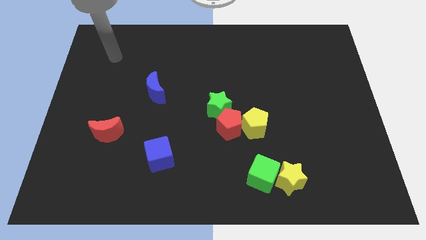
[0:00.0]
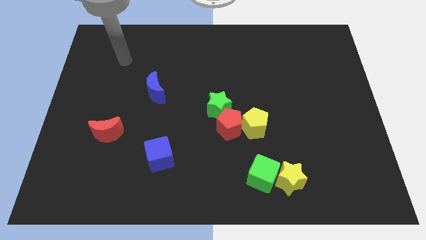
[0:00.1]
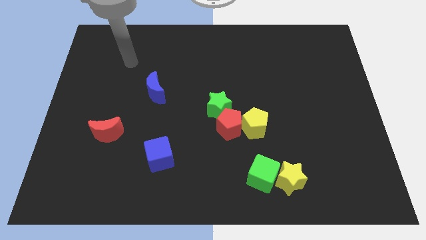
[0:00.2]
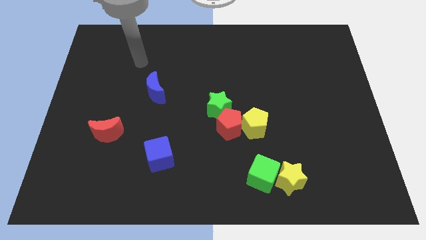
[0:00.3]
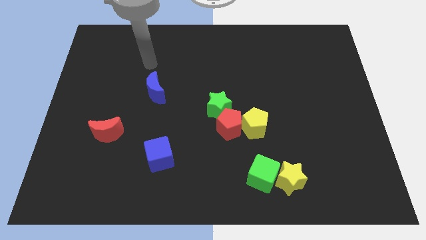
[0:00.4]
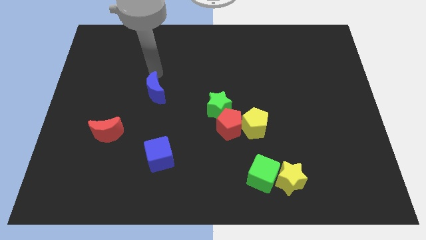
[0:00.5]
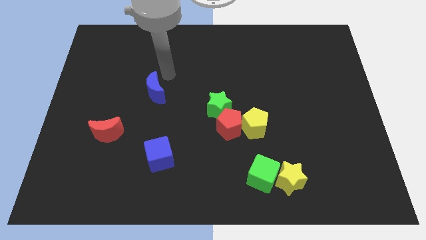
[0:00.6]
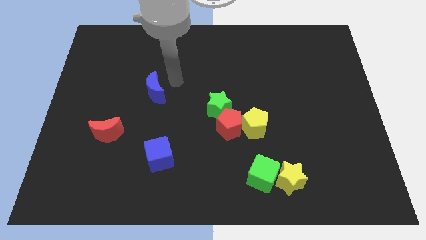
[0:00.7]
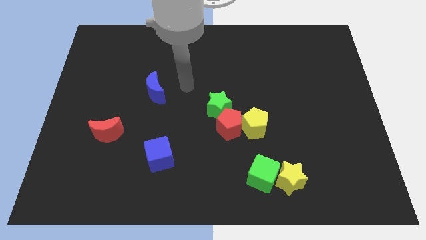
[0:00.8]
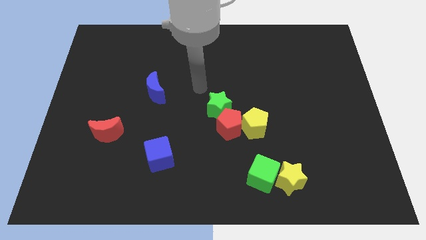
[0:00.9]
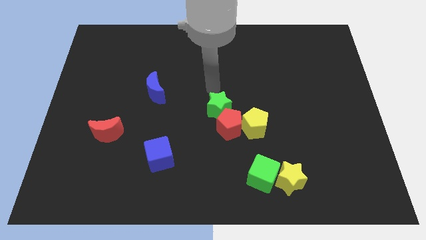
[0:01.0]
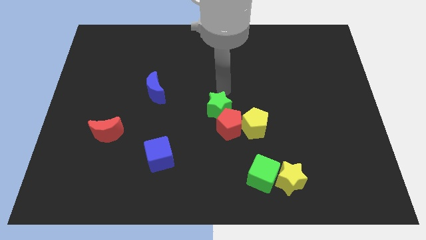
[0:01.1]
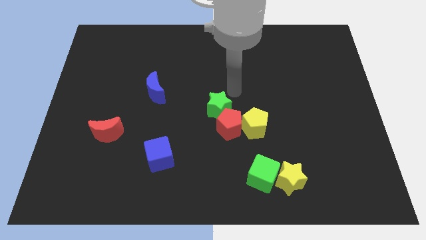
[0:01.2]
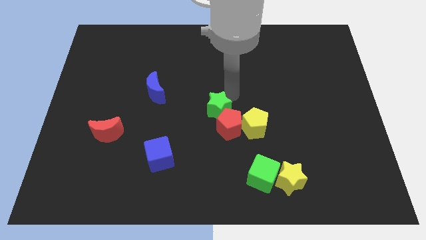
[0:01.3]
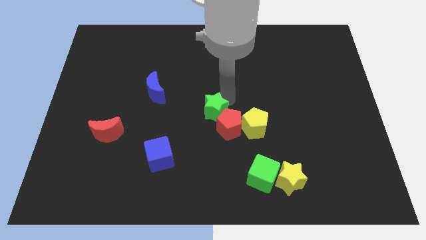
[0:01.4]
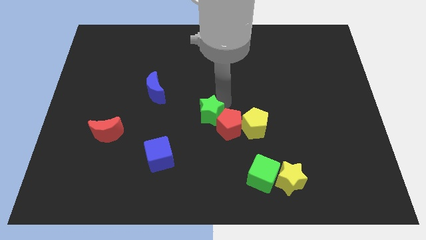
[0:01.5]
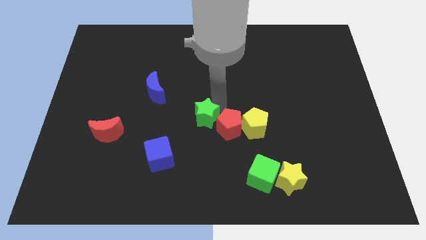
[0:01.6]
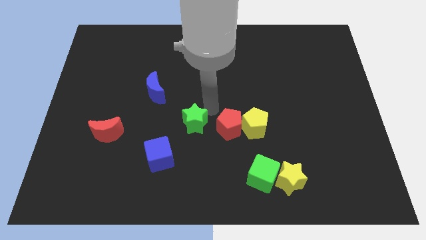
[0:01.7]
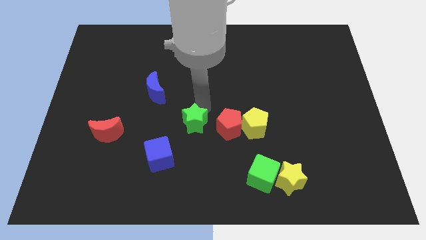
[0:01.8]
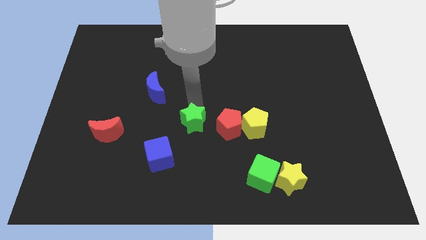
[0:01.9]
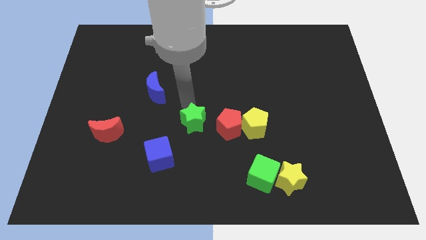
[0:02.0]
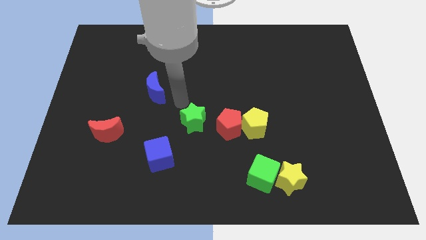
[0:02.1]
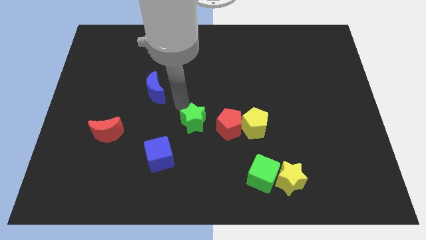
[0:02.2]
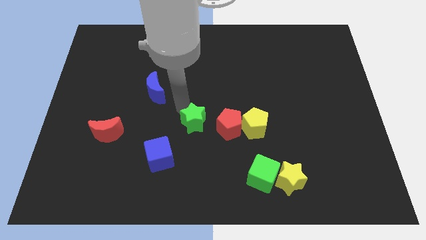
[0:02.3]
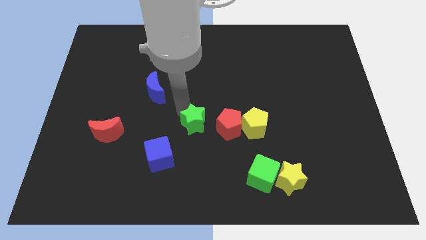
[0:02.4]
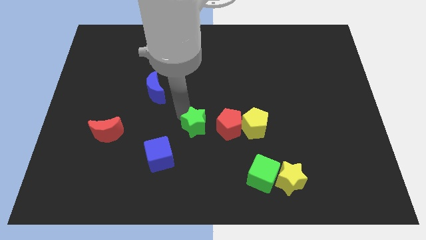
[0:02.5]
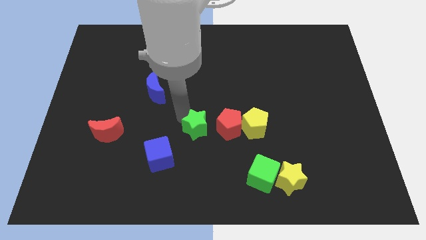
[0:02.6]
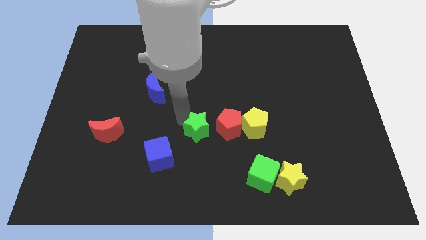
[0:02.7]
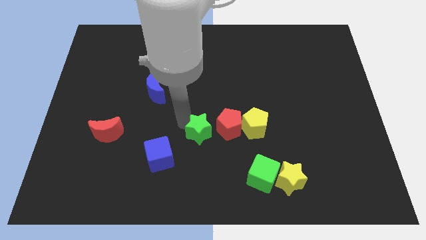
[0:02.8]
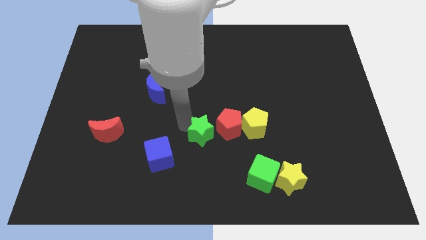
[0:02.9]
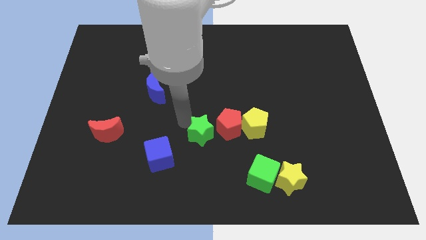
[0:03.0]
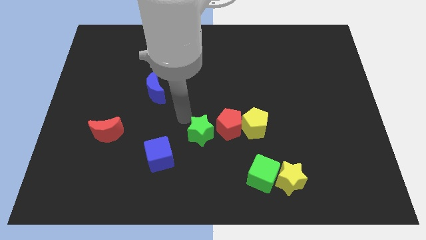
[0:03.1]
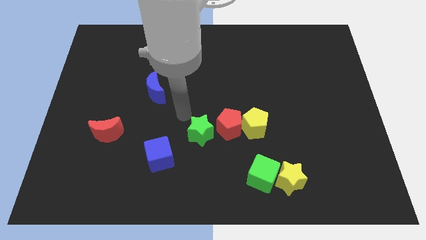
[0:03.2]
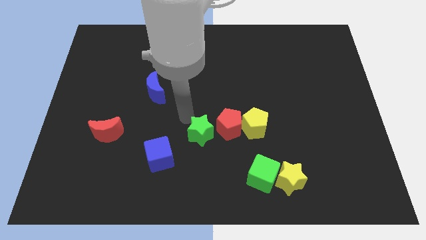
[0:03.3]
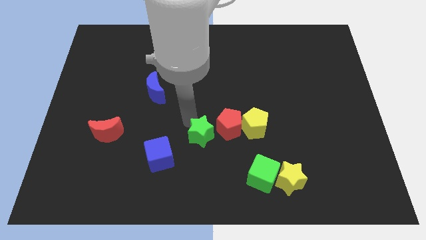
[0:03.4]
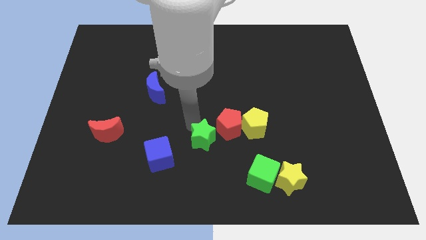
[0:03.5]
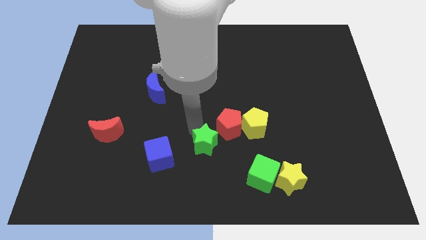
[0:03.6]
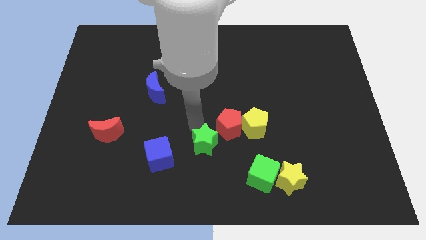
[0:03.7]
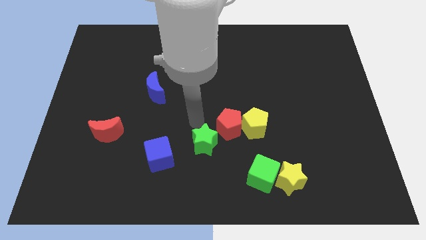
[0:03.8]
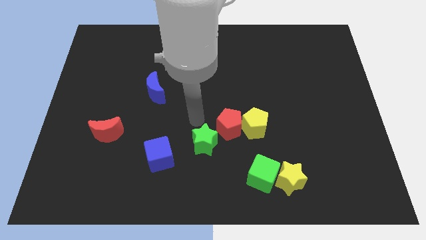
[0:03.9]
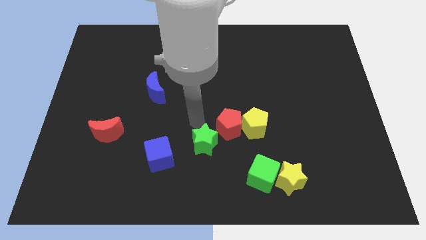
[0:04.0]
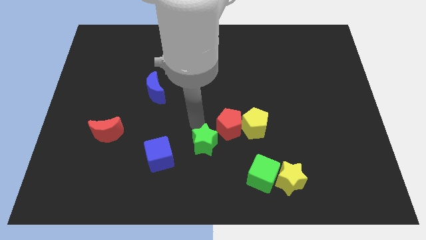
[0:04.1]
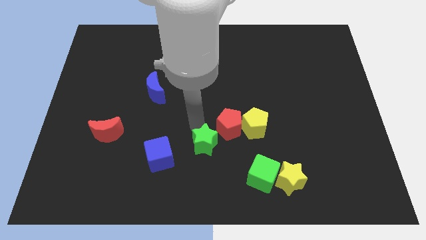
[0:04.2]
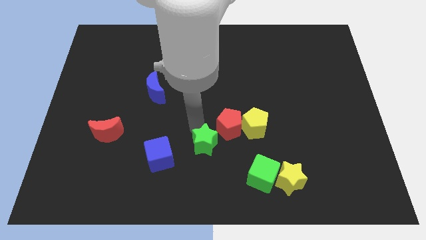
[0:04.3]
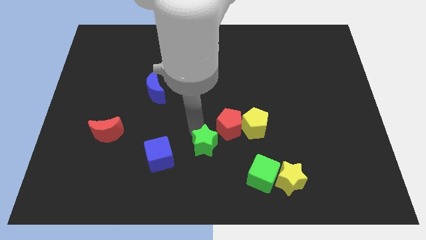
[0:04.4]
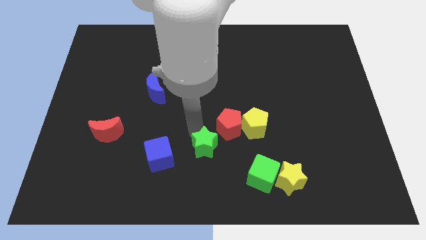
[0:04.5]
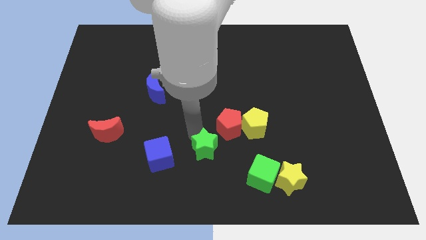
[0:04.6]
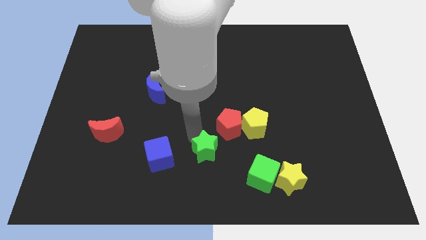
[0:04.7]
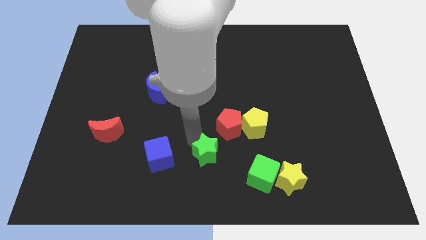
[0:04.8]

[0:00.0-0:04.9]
move the green star to the bottom side

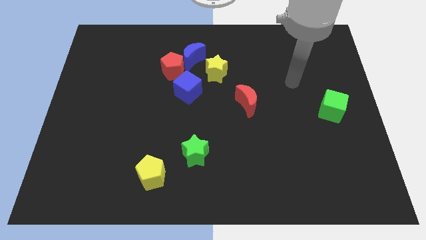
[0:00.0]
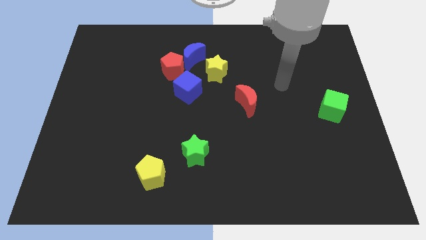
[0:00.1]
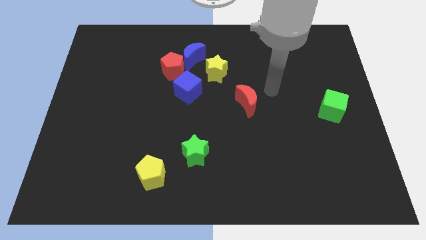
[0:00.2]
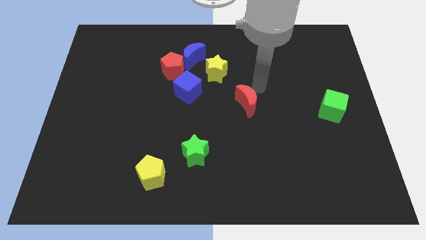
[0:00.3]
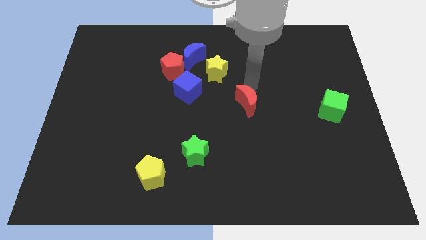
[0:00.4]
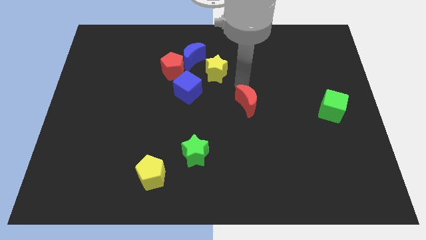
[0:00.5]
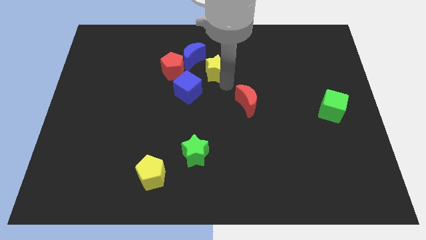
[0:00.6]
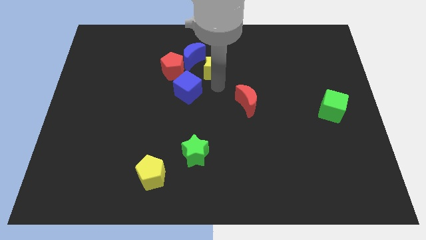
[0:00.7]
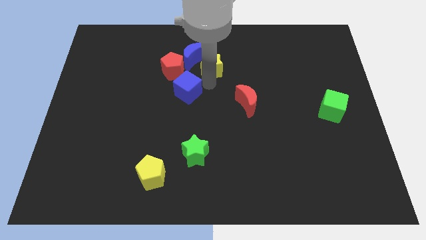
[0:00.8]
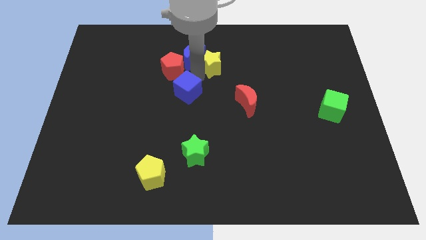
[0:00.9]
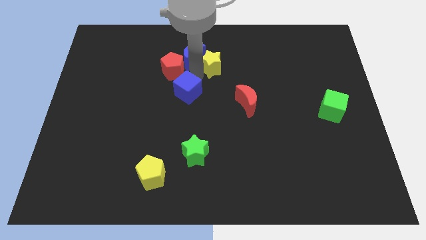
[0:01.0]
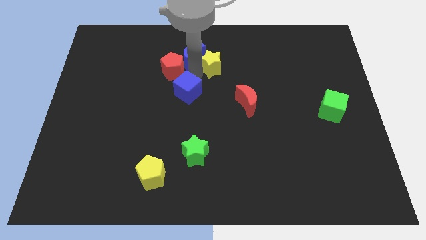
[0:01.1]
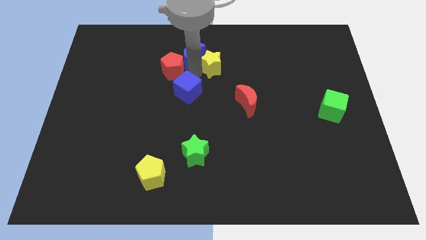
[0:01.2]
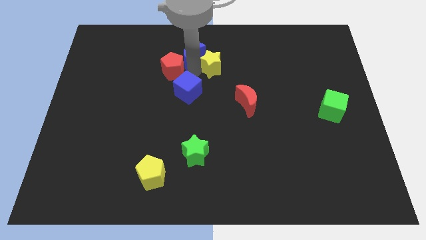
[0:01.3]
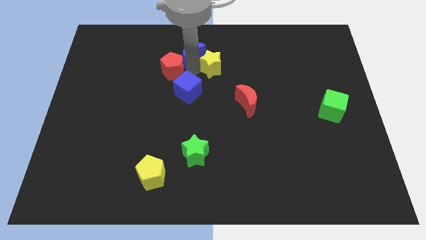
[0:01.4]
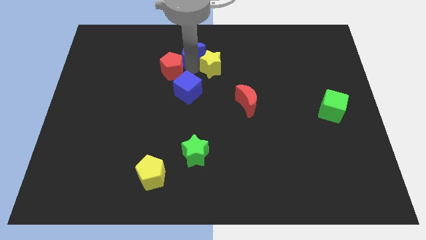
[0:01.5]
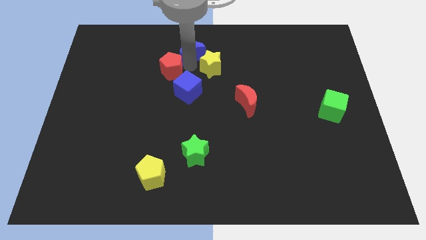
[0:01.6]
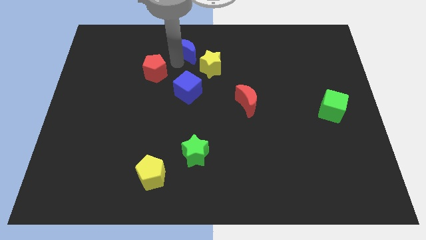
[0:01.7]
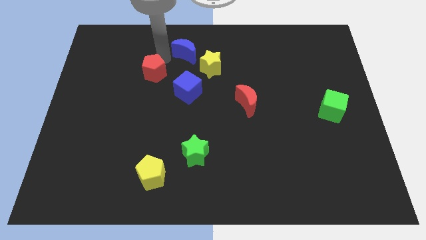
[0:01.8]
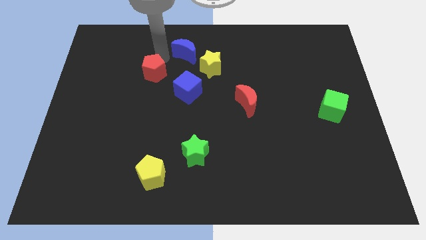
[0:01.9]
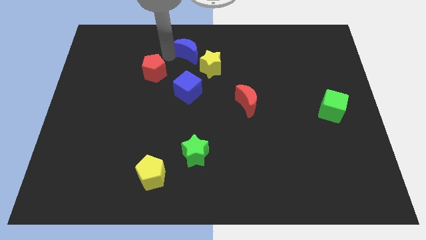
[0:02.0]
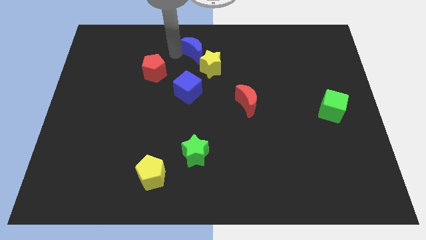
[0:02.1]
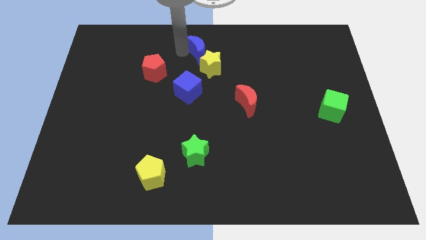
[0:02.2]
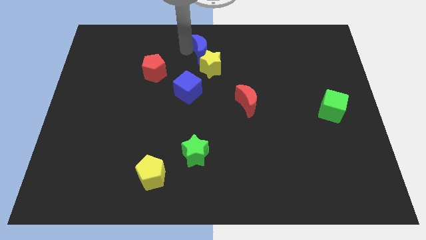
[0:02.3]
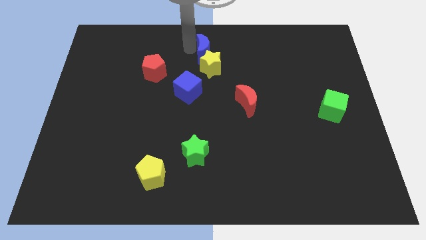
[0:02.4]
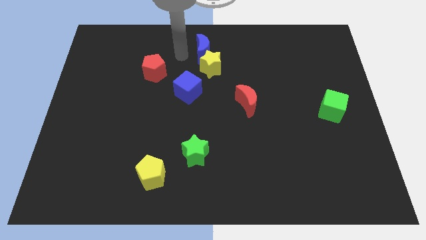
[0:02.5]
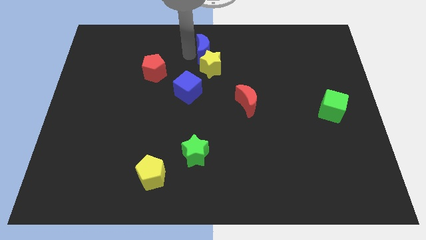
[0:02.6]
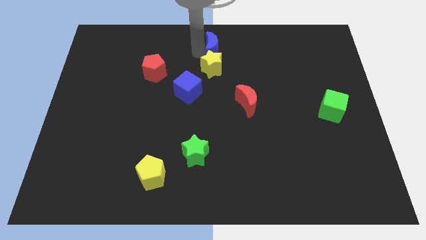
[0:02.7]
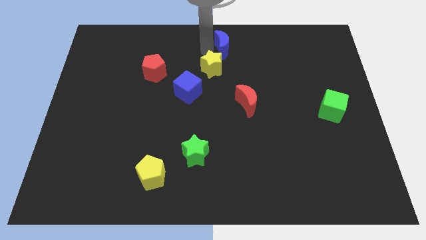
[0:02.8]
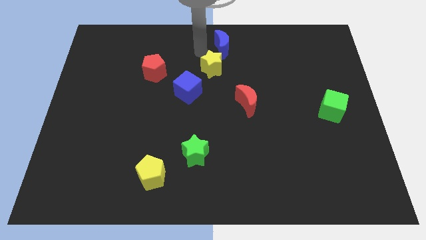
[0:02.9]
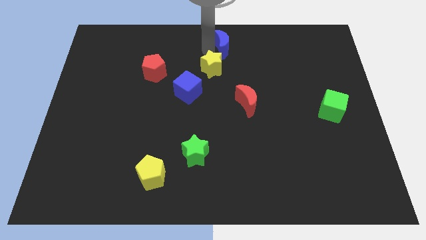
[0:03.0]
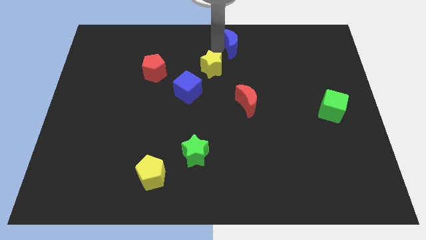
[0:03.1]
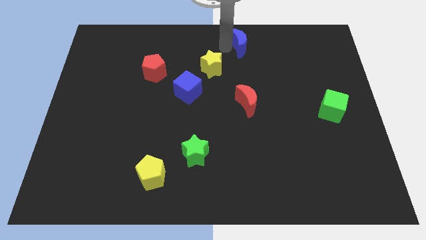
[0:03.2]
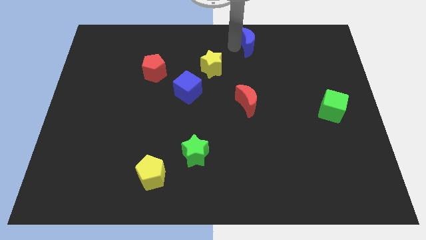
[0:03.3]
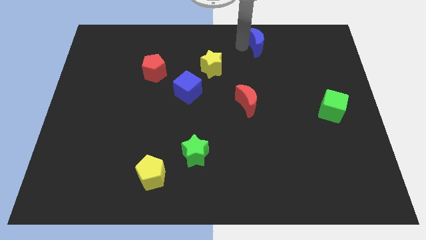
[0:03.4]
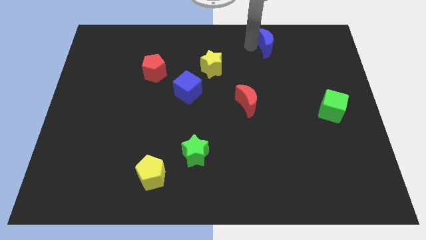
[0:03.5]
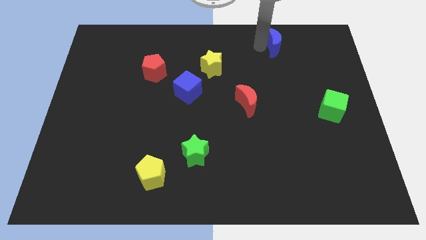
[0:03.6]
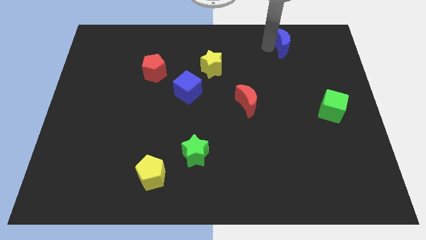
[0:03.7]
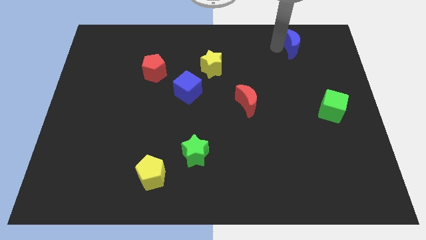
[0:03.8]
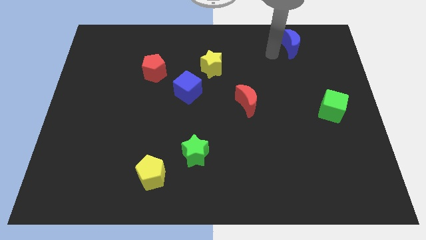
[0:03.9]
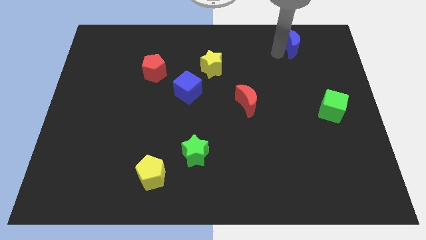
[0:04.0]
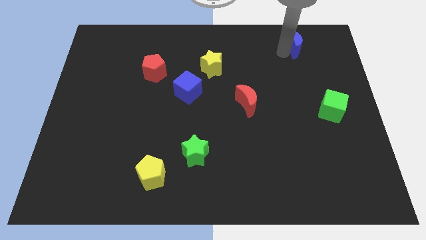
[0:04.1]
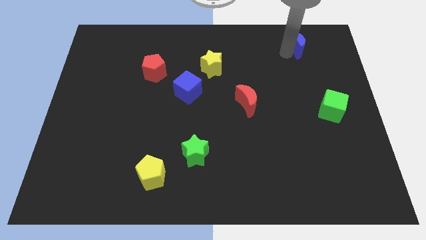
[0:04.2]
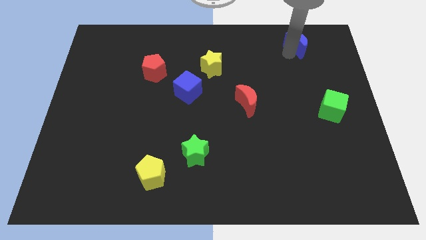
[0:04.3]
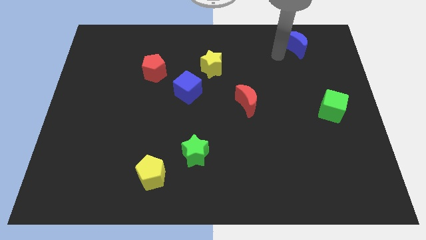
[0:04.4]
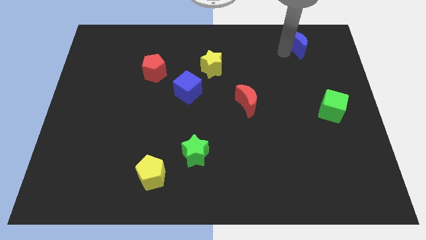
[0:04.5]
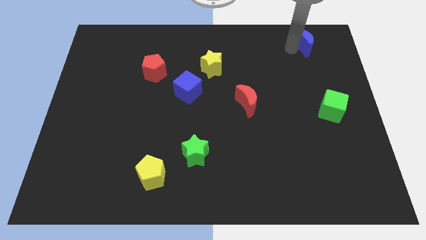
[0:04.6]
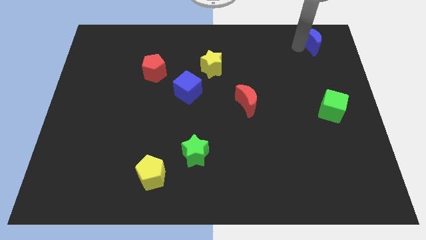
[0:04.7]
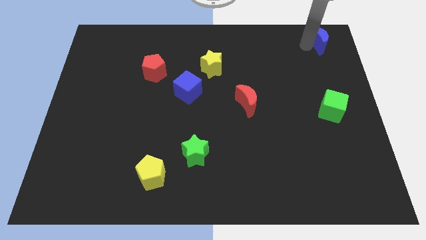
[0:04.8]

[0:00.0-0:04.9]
put the blue moon to the top right corner
